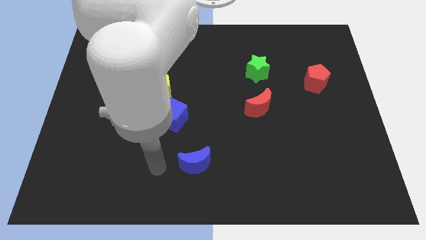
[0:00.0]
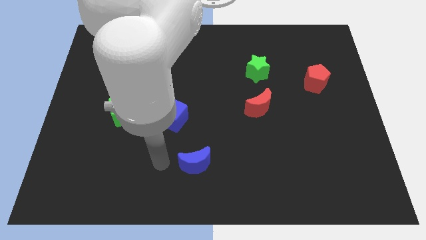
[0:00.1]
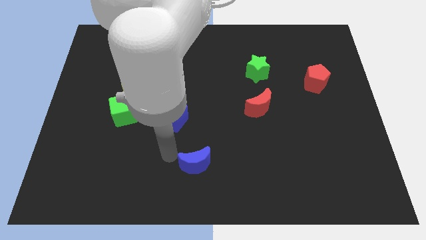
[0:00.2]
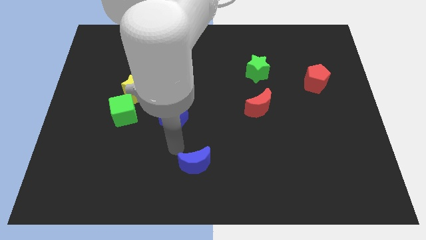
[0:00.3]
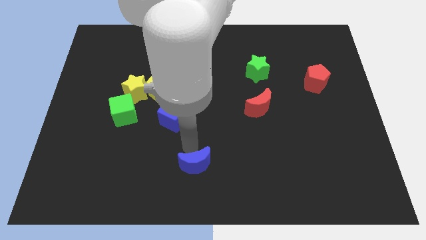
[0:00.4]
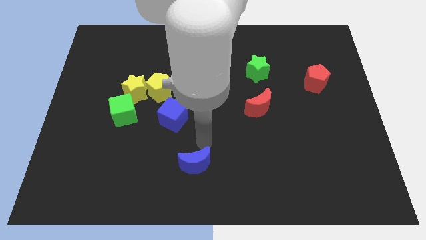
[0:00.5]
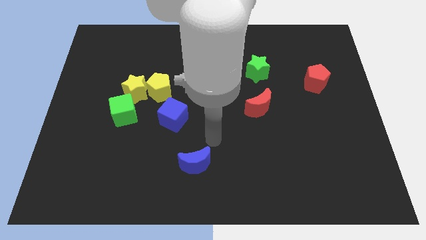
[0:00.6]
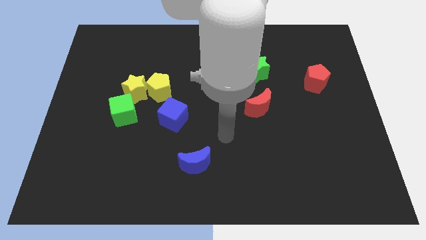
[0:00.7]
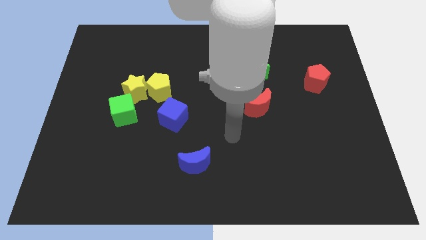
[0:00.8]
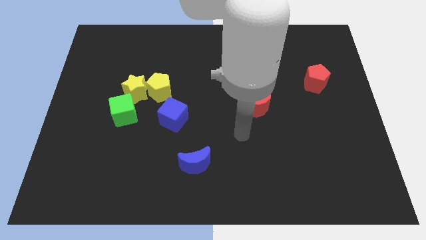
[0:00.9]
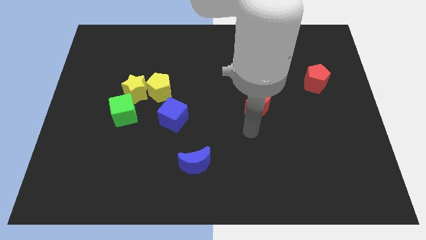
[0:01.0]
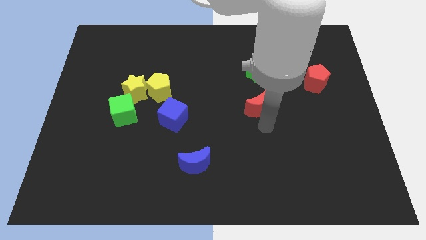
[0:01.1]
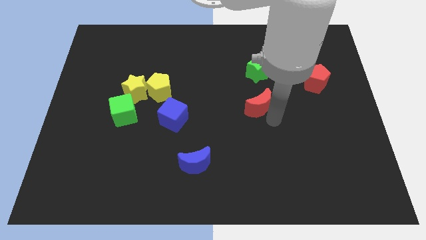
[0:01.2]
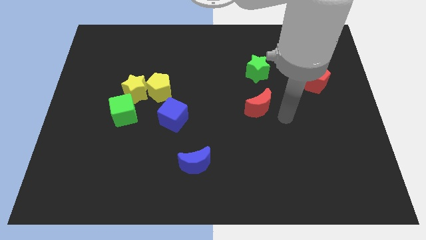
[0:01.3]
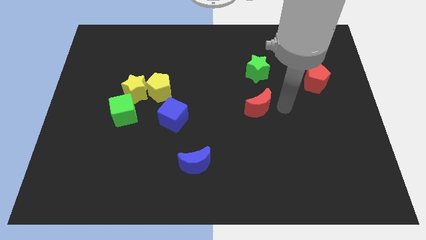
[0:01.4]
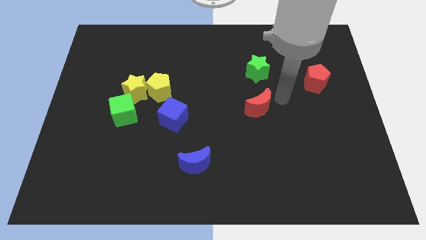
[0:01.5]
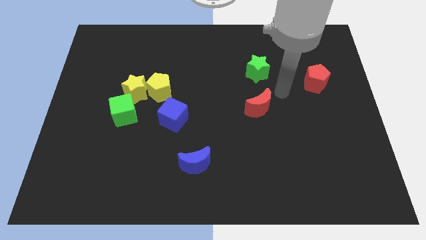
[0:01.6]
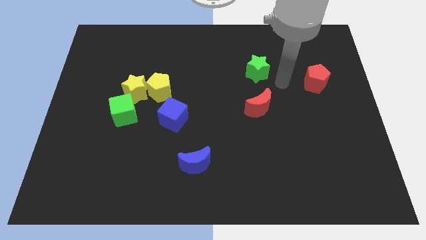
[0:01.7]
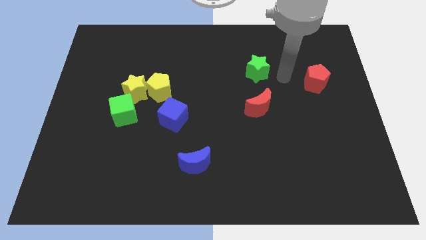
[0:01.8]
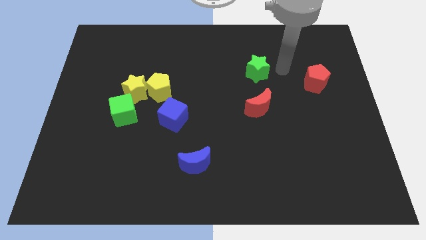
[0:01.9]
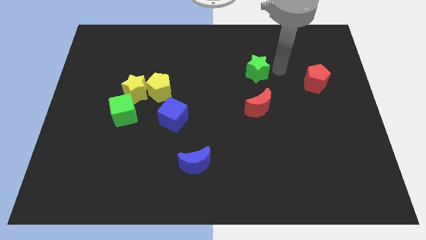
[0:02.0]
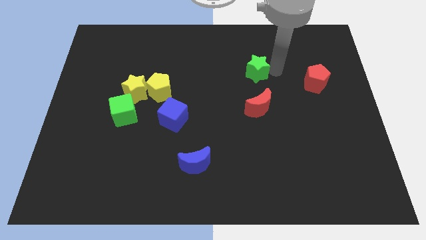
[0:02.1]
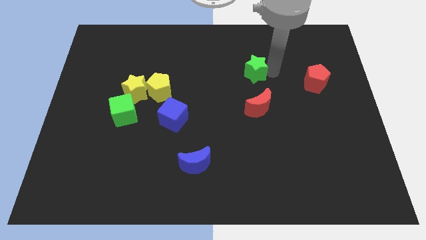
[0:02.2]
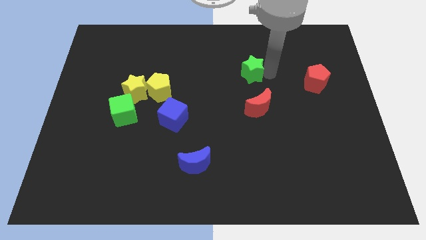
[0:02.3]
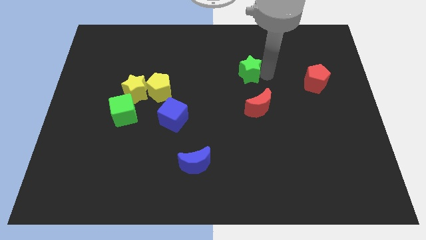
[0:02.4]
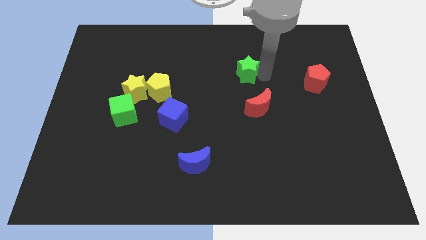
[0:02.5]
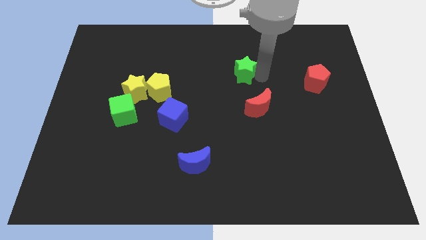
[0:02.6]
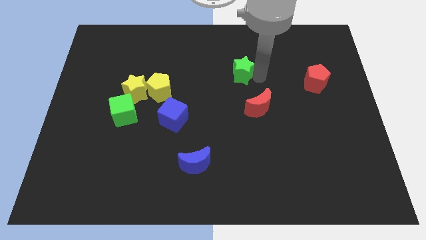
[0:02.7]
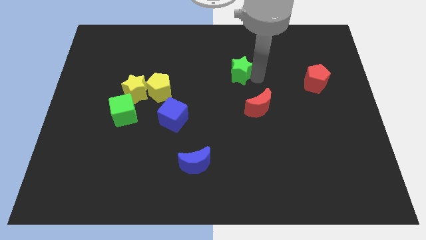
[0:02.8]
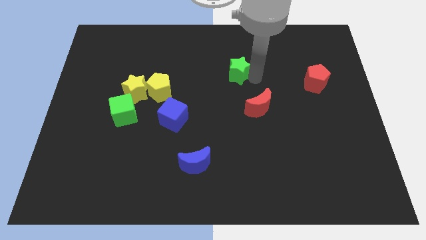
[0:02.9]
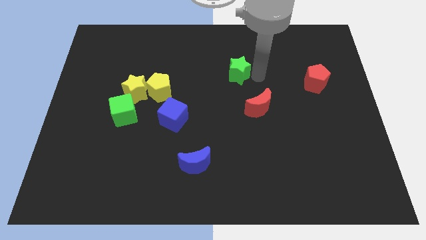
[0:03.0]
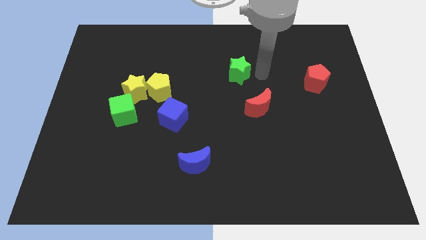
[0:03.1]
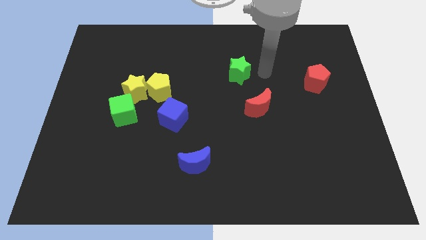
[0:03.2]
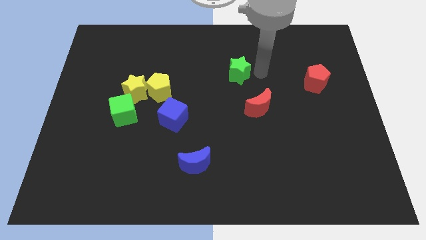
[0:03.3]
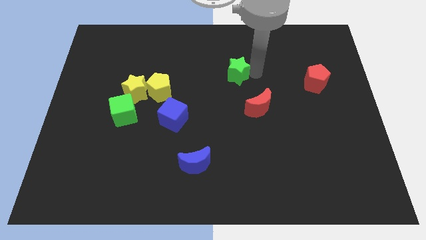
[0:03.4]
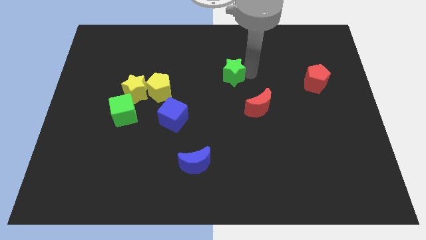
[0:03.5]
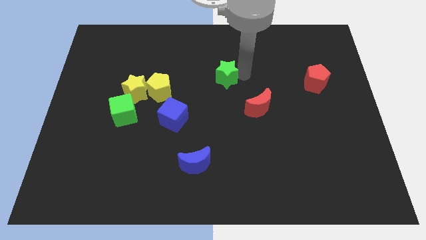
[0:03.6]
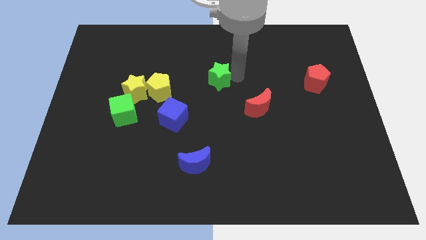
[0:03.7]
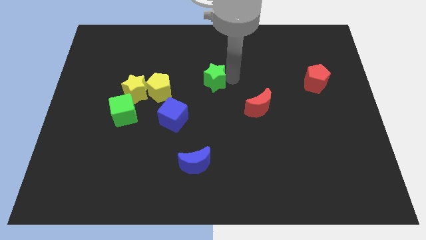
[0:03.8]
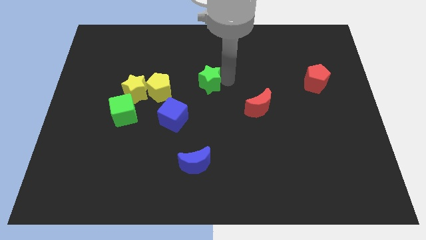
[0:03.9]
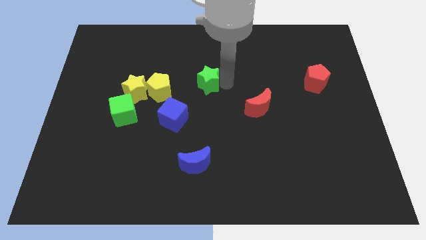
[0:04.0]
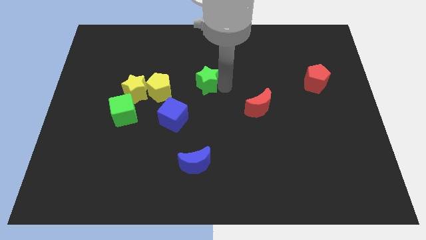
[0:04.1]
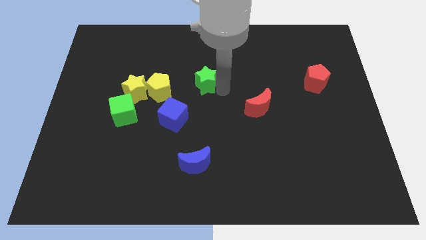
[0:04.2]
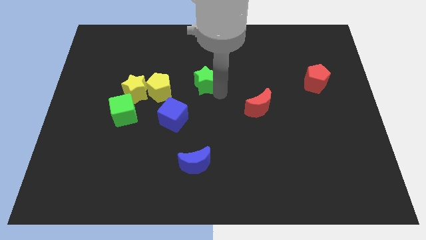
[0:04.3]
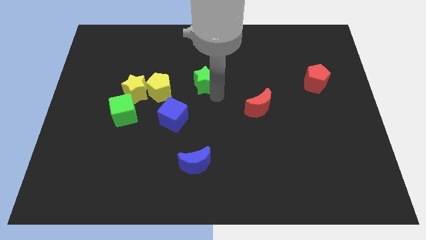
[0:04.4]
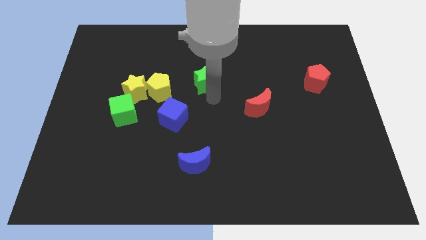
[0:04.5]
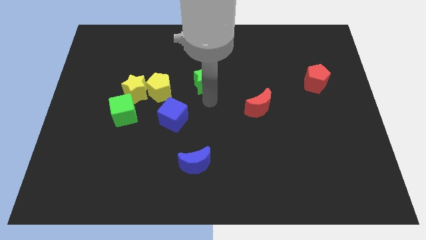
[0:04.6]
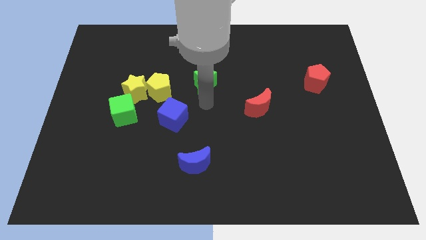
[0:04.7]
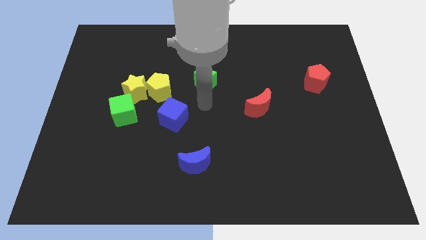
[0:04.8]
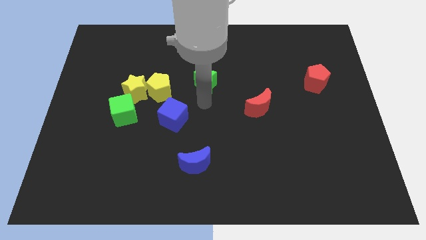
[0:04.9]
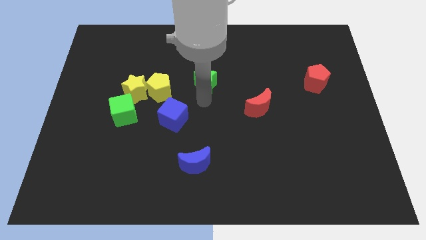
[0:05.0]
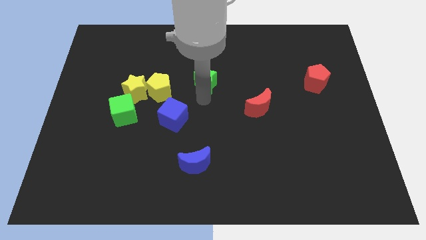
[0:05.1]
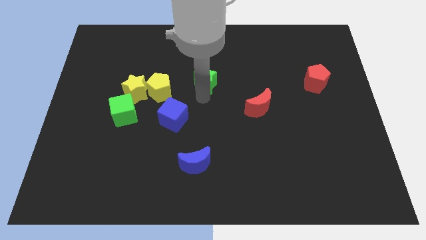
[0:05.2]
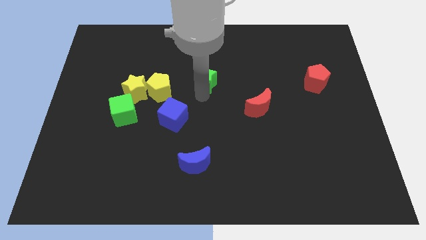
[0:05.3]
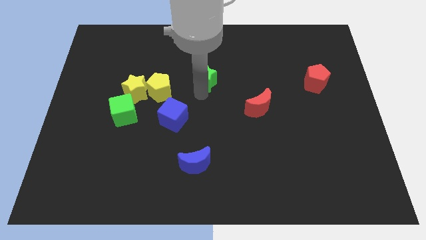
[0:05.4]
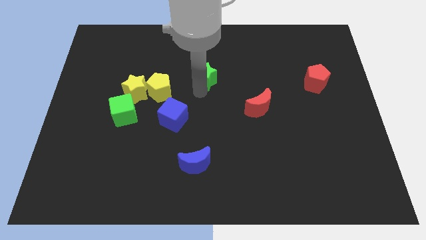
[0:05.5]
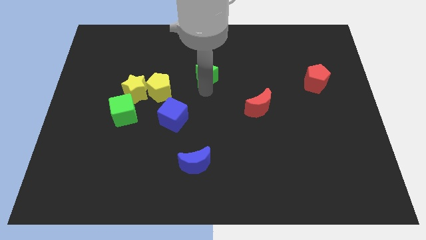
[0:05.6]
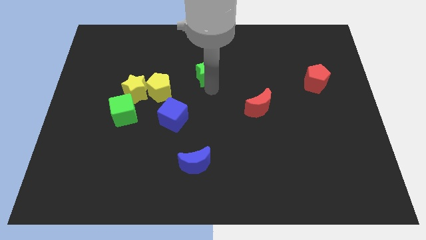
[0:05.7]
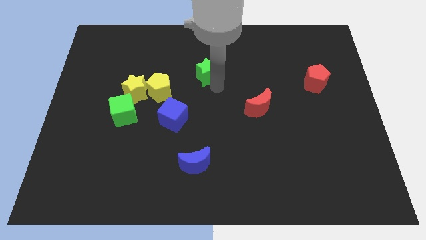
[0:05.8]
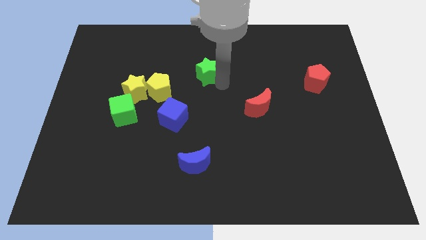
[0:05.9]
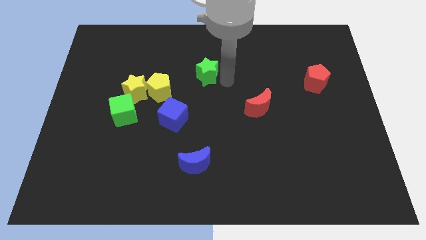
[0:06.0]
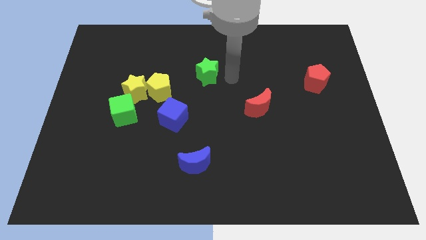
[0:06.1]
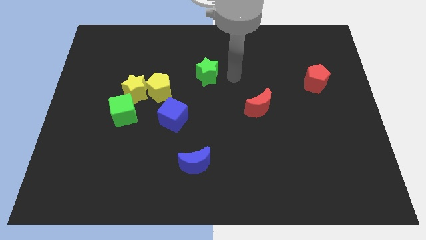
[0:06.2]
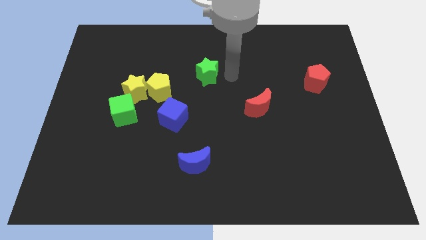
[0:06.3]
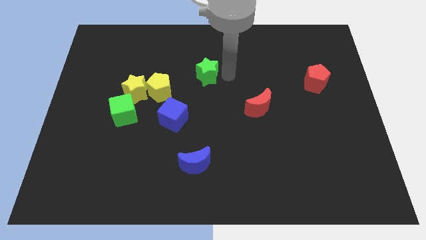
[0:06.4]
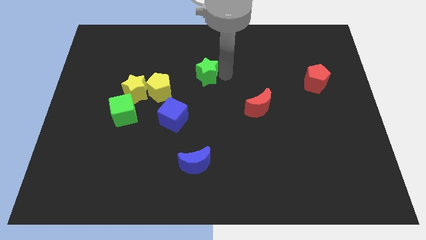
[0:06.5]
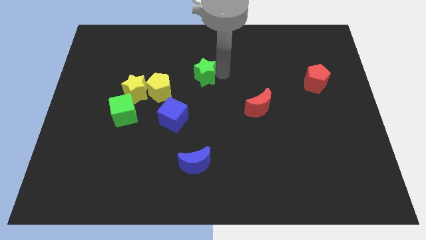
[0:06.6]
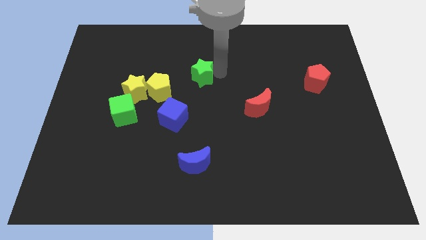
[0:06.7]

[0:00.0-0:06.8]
push the green star to the top right of the yellow pentagon
